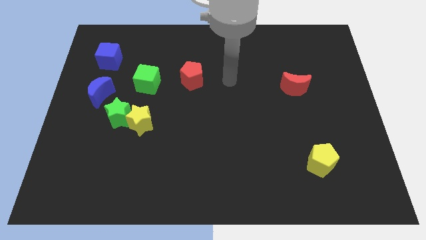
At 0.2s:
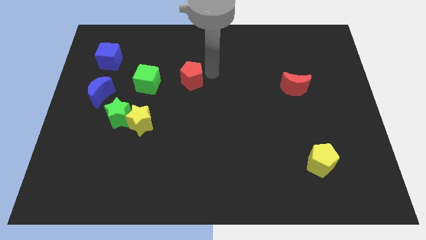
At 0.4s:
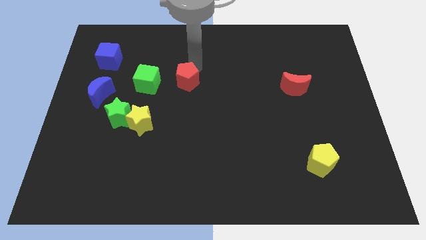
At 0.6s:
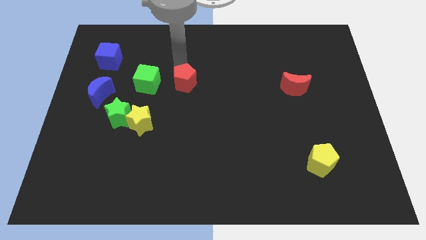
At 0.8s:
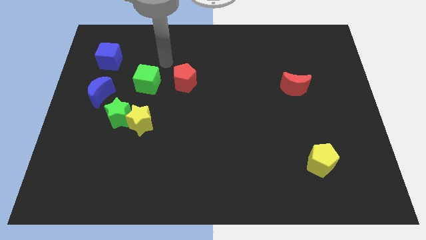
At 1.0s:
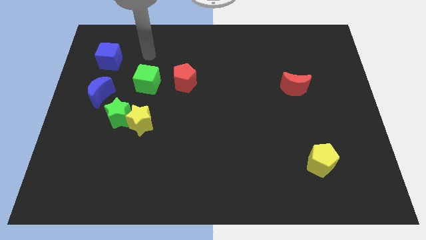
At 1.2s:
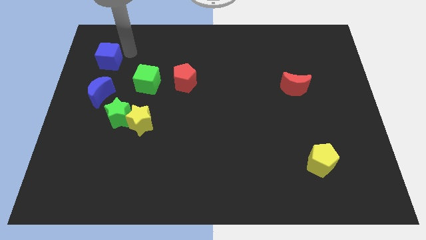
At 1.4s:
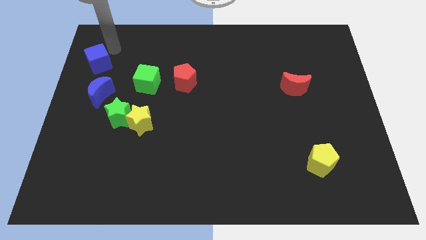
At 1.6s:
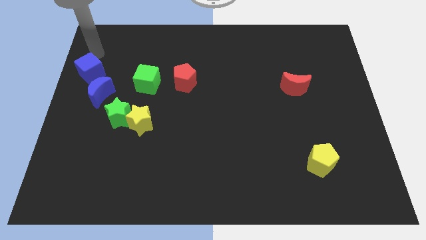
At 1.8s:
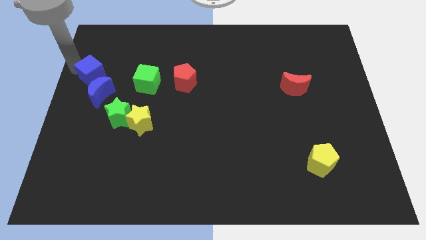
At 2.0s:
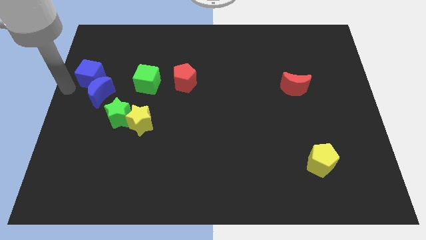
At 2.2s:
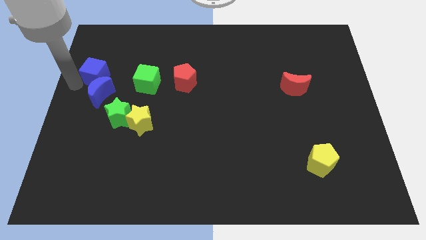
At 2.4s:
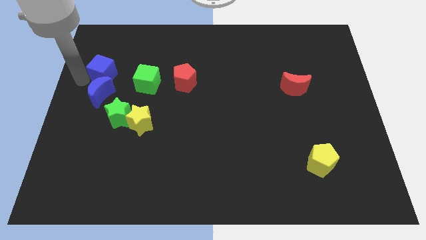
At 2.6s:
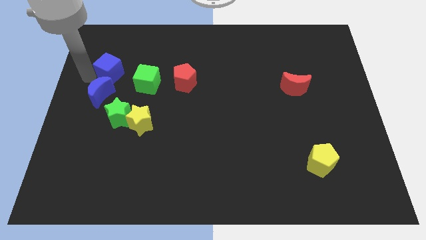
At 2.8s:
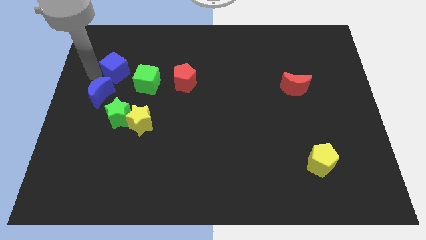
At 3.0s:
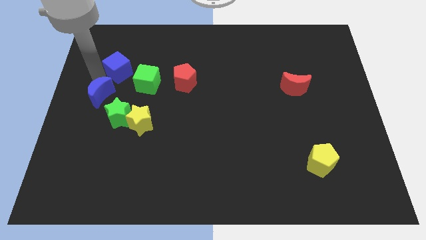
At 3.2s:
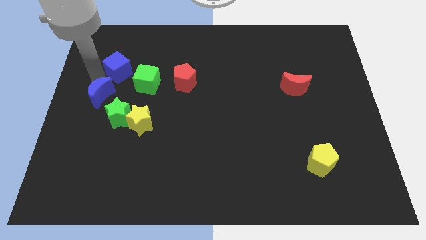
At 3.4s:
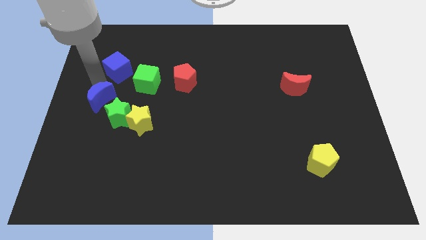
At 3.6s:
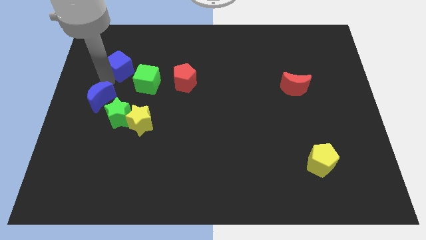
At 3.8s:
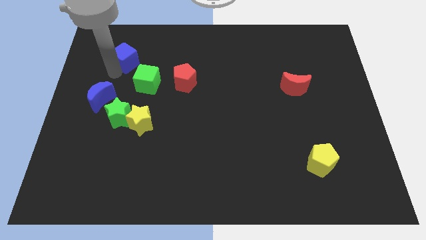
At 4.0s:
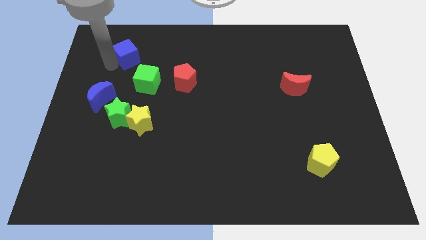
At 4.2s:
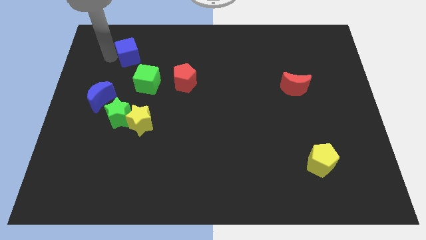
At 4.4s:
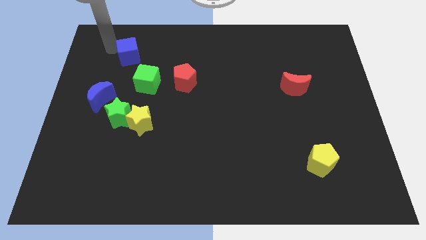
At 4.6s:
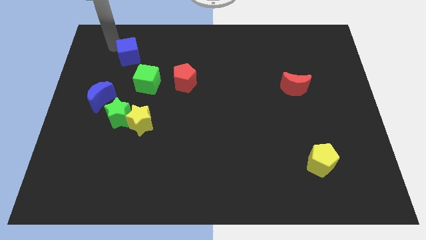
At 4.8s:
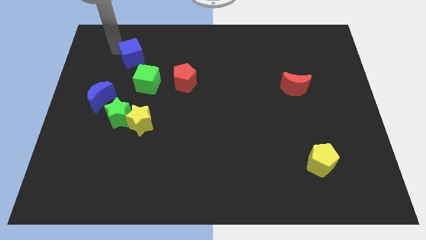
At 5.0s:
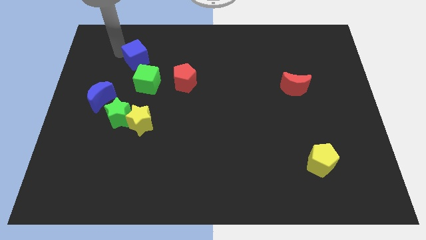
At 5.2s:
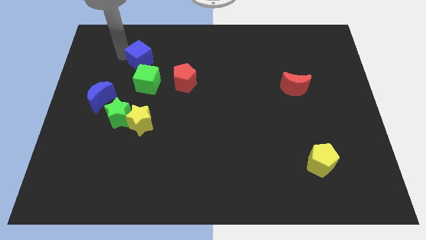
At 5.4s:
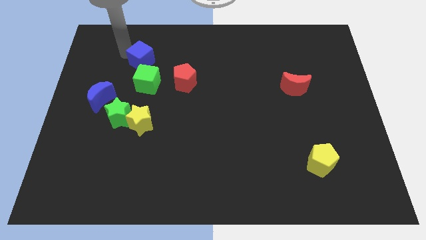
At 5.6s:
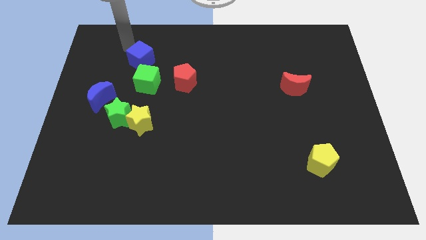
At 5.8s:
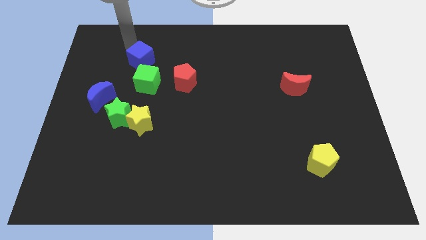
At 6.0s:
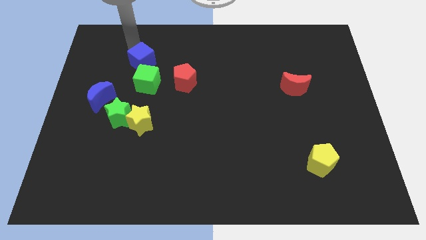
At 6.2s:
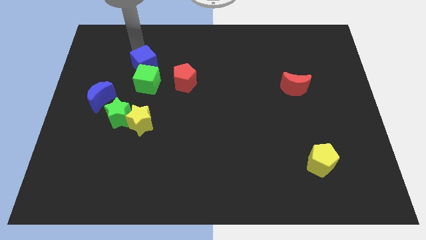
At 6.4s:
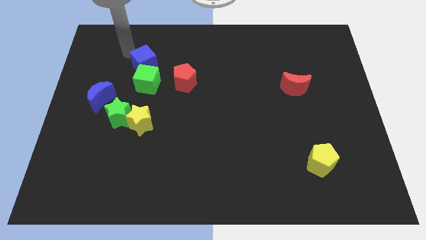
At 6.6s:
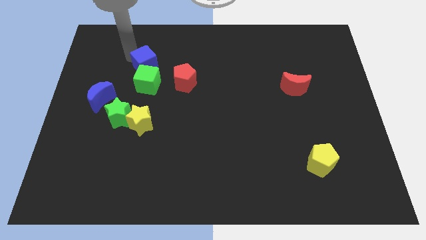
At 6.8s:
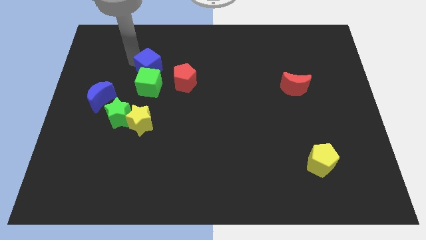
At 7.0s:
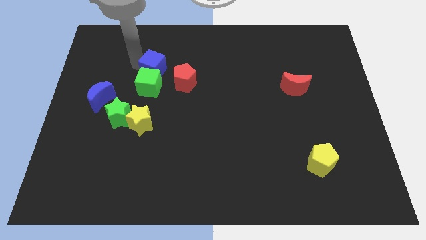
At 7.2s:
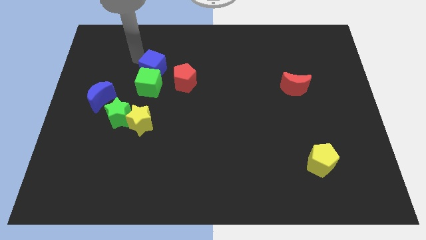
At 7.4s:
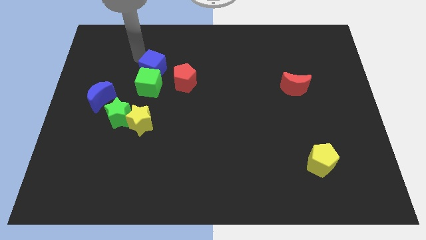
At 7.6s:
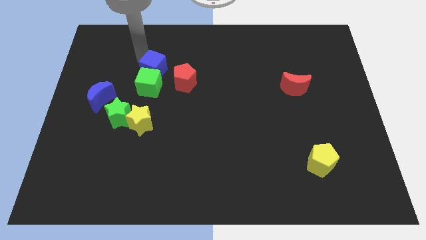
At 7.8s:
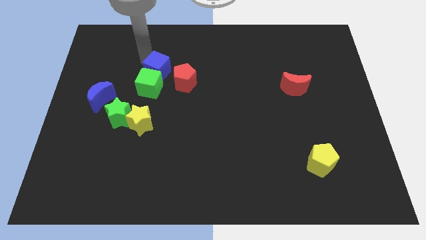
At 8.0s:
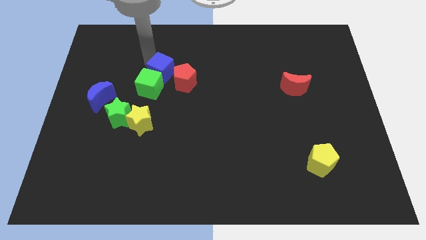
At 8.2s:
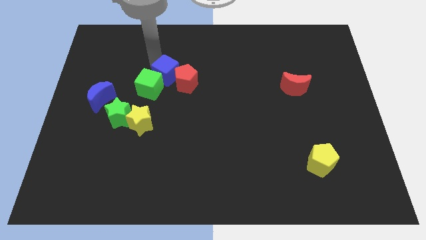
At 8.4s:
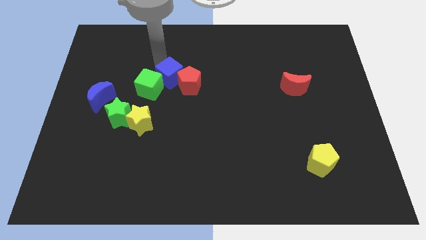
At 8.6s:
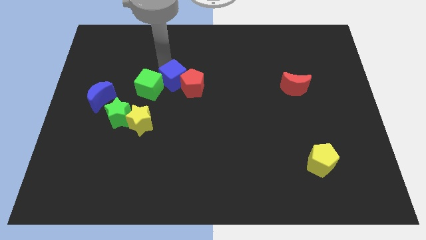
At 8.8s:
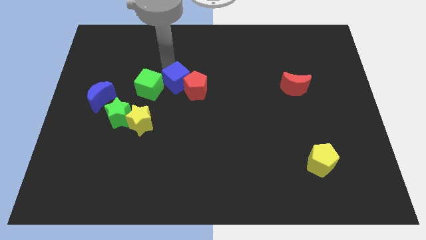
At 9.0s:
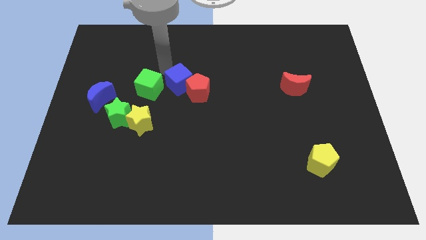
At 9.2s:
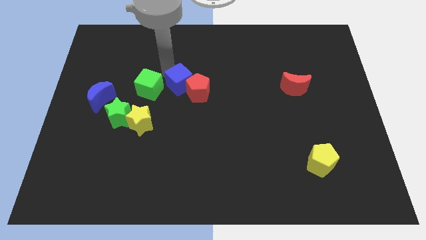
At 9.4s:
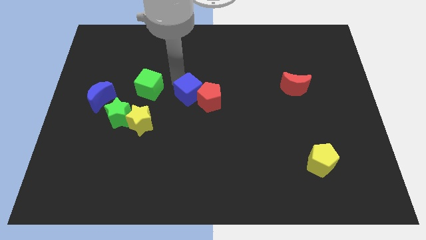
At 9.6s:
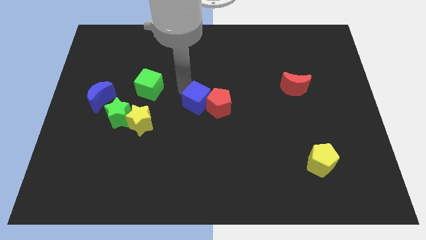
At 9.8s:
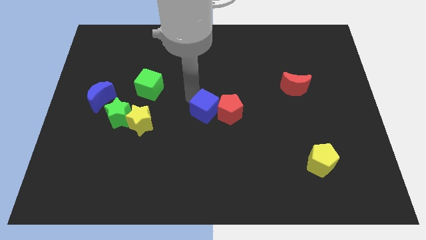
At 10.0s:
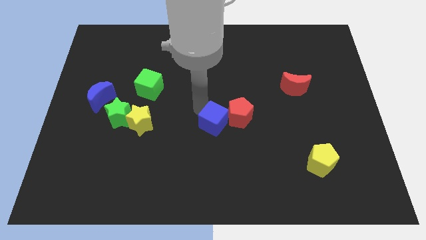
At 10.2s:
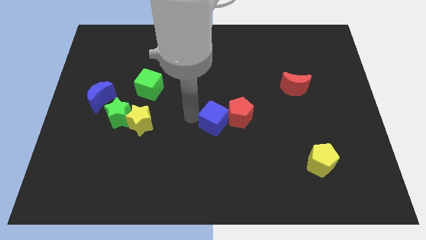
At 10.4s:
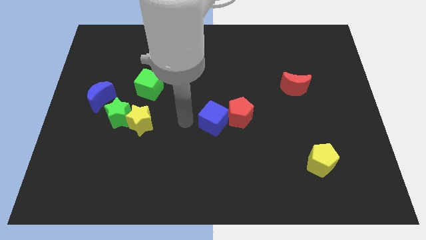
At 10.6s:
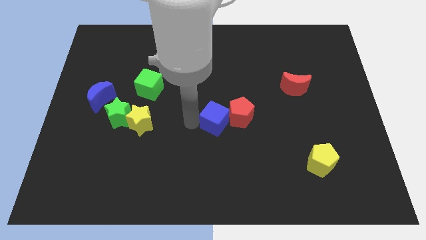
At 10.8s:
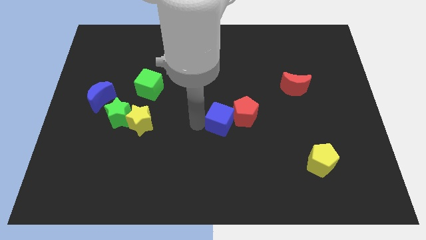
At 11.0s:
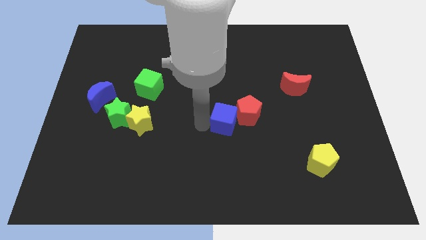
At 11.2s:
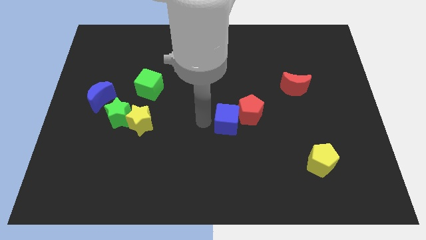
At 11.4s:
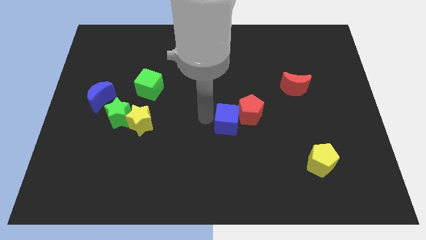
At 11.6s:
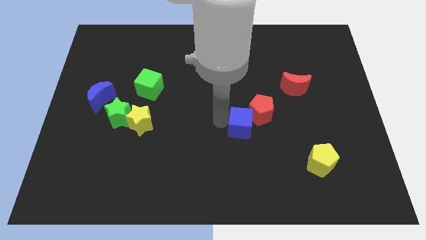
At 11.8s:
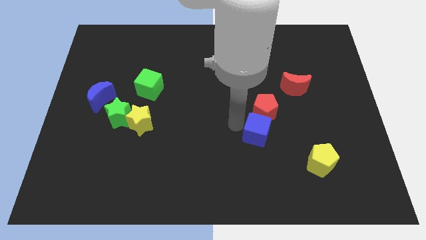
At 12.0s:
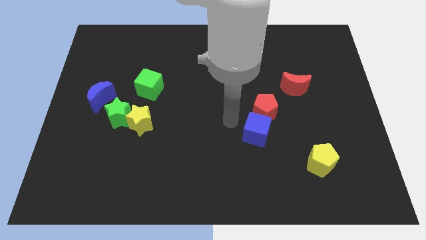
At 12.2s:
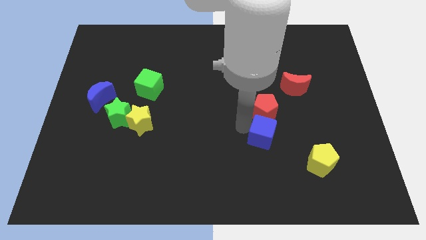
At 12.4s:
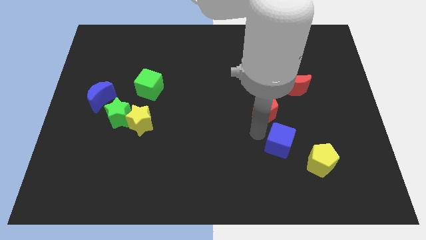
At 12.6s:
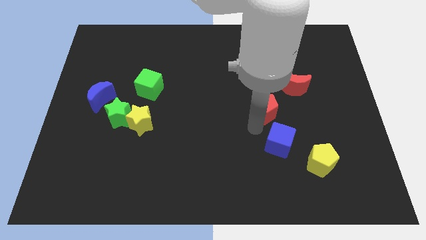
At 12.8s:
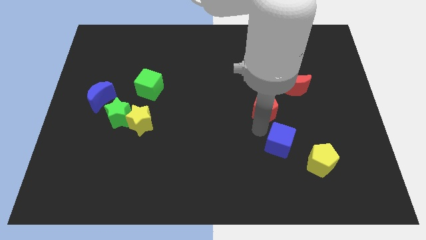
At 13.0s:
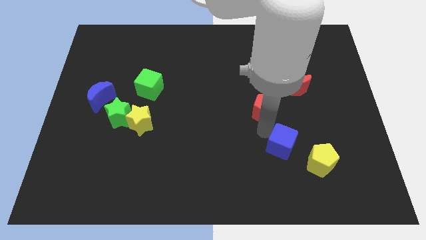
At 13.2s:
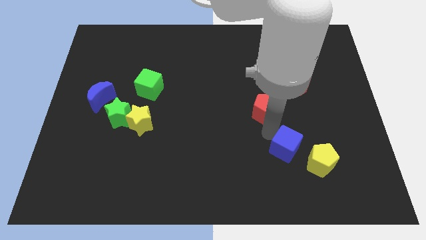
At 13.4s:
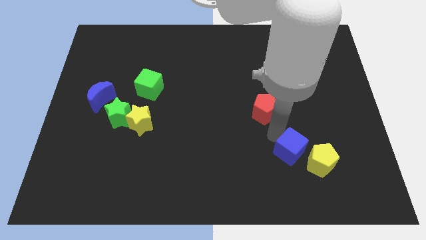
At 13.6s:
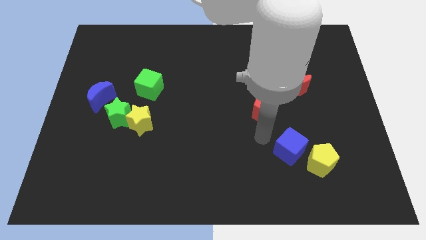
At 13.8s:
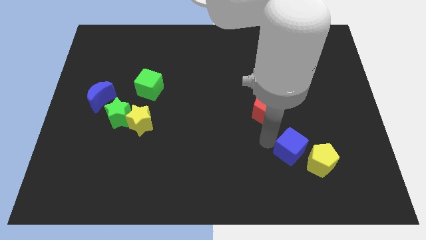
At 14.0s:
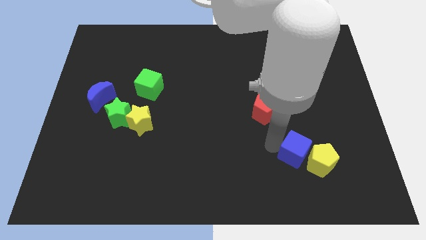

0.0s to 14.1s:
push the blue cube next to the yellow pentagon

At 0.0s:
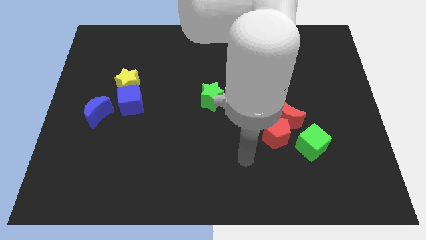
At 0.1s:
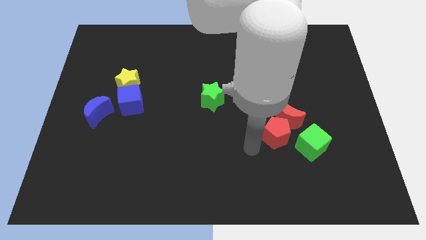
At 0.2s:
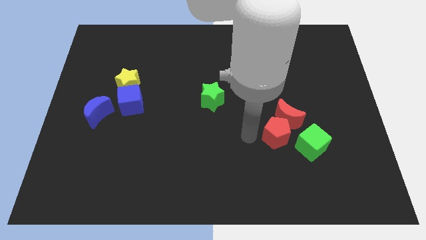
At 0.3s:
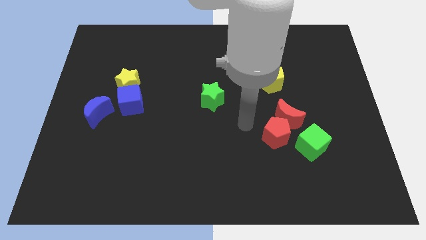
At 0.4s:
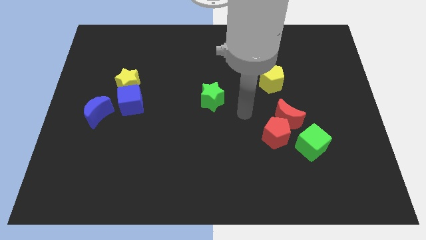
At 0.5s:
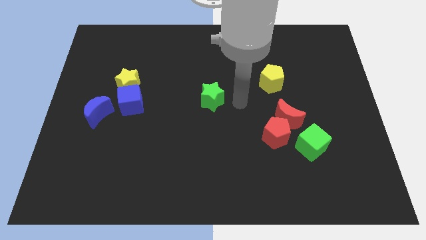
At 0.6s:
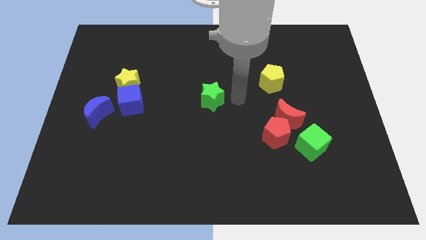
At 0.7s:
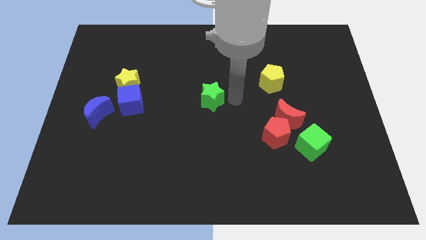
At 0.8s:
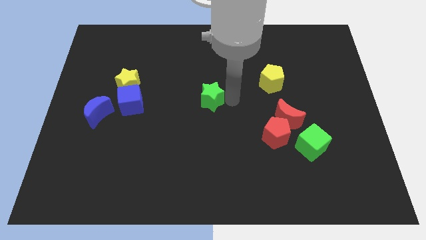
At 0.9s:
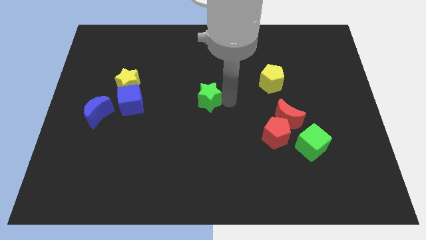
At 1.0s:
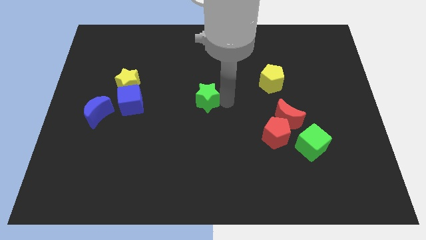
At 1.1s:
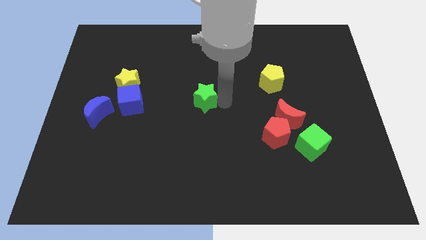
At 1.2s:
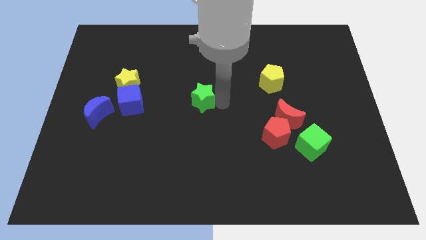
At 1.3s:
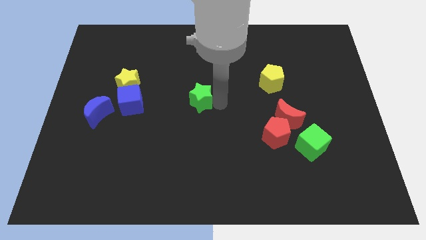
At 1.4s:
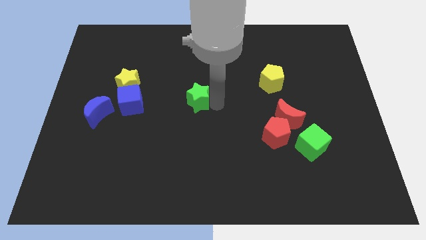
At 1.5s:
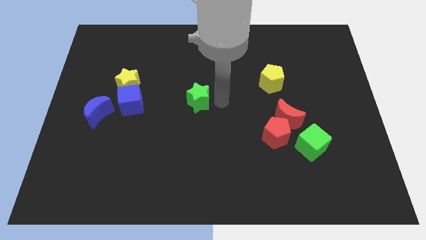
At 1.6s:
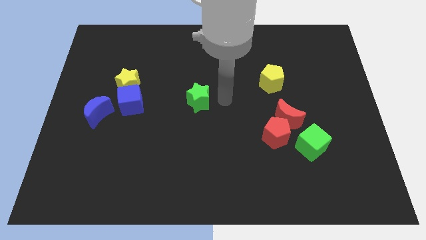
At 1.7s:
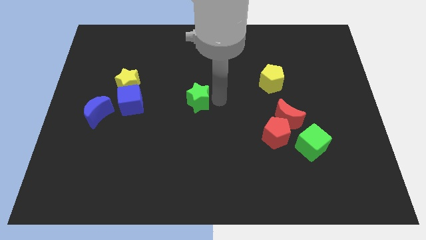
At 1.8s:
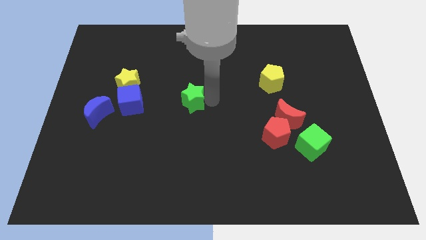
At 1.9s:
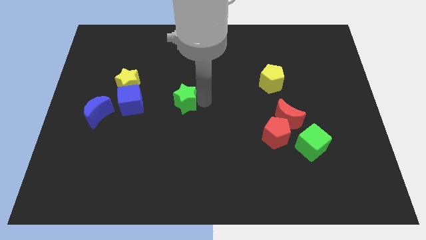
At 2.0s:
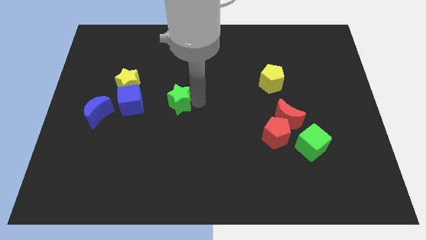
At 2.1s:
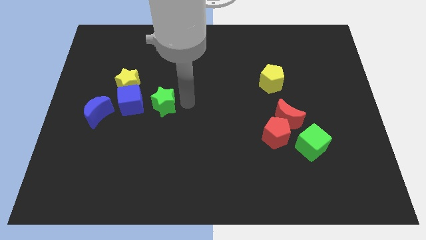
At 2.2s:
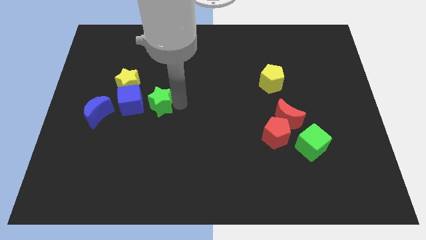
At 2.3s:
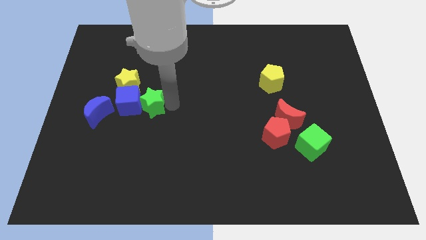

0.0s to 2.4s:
put the green star next to the blue cube
